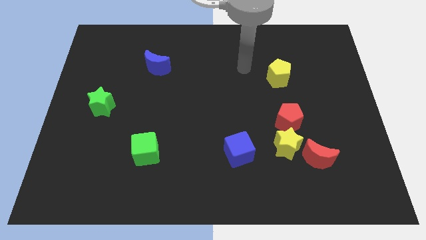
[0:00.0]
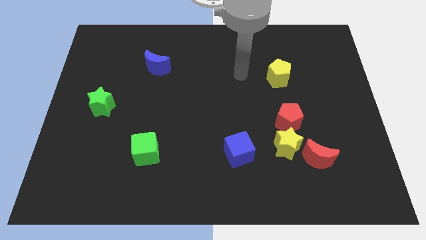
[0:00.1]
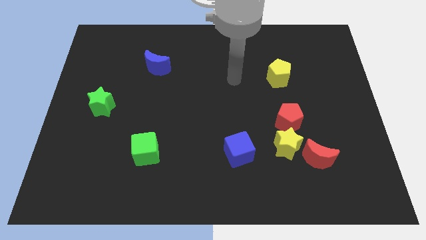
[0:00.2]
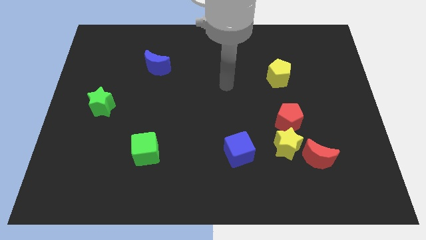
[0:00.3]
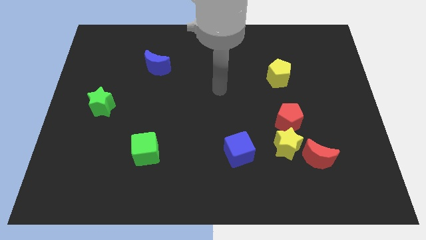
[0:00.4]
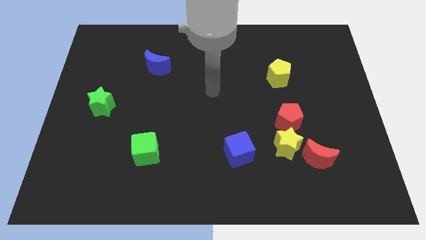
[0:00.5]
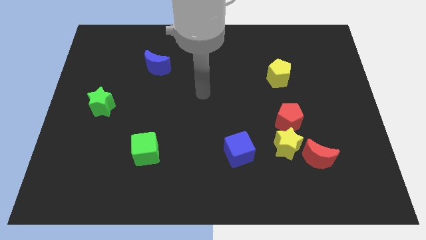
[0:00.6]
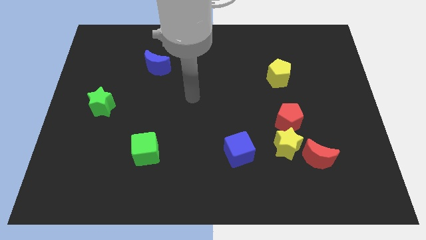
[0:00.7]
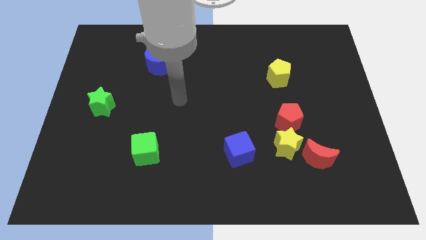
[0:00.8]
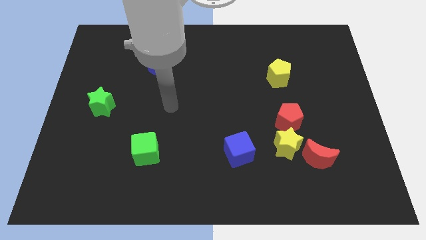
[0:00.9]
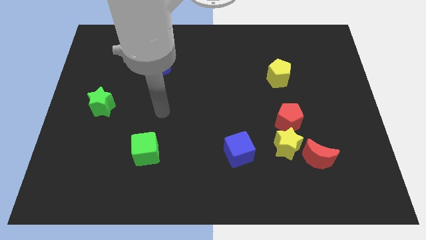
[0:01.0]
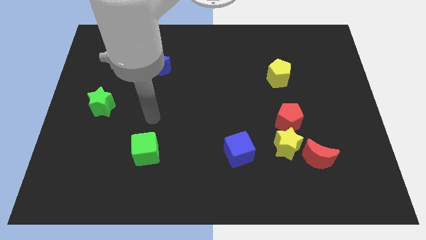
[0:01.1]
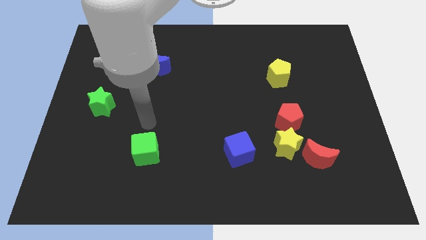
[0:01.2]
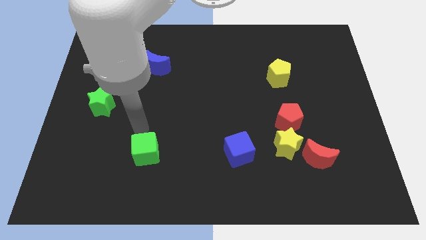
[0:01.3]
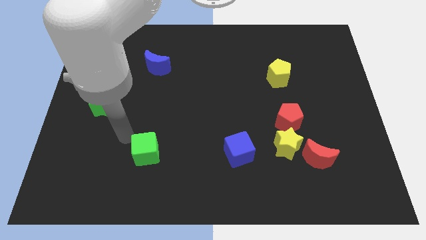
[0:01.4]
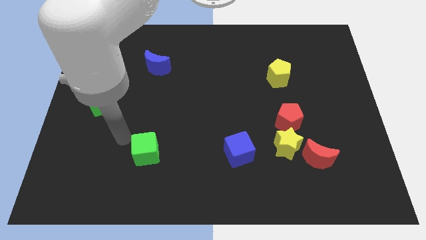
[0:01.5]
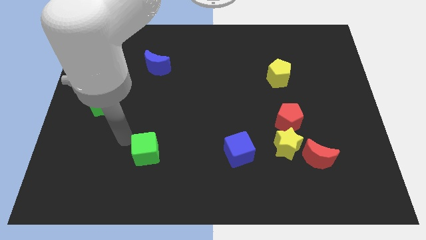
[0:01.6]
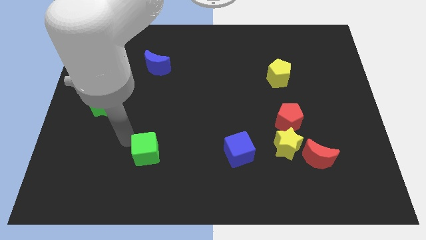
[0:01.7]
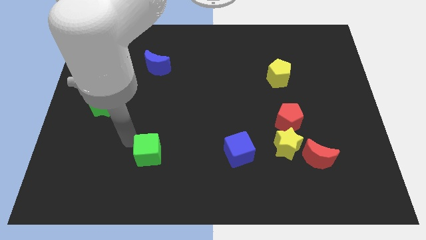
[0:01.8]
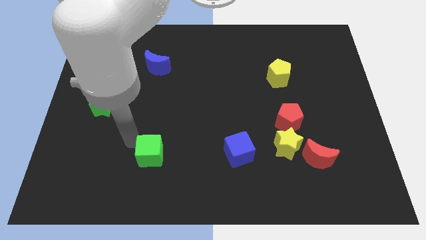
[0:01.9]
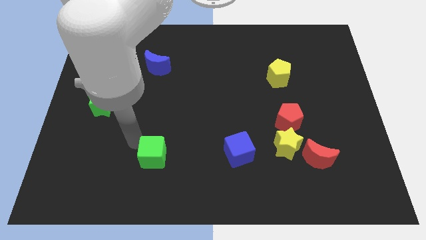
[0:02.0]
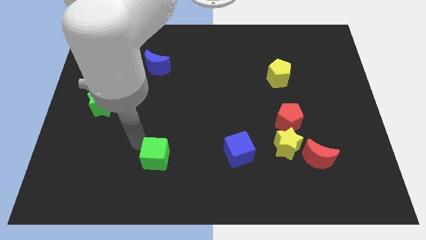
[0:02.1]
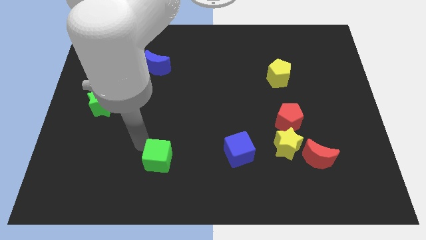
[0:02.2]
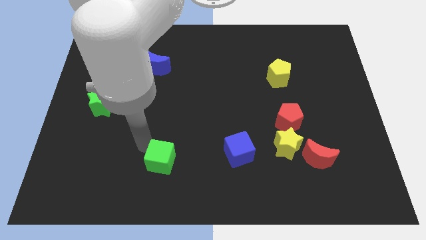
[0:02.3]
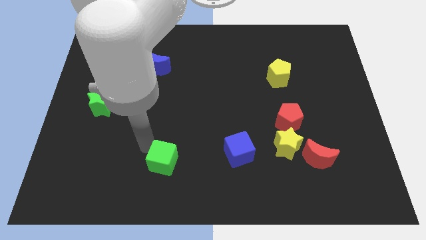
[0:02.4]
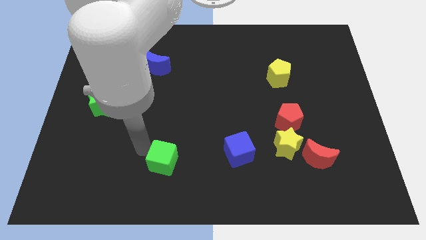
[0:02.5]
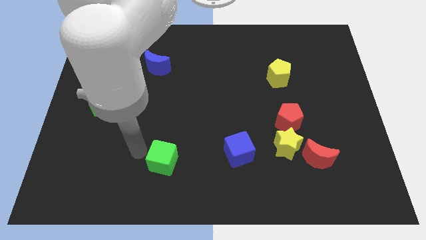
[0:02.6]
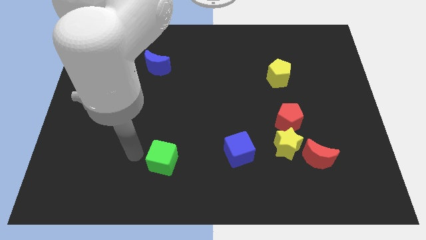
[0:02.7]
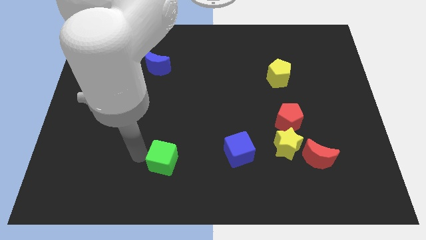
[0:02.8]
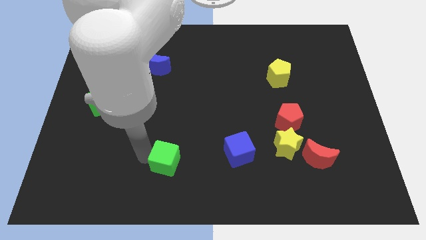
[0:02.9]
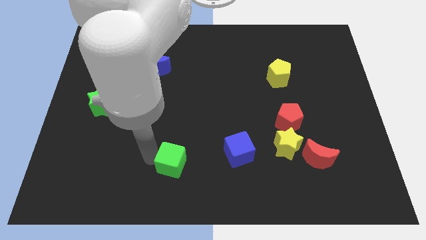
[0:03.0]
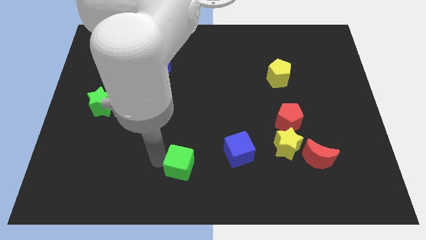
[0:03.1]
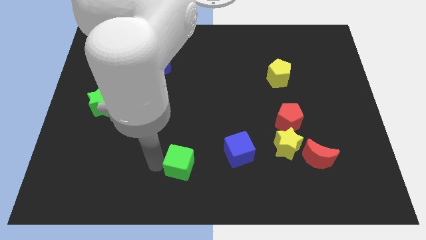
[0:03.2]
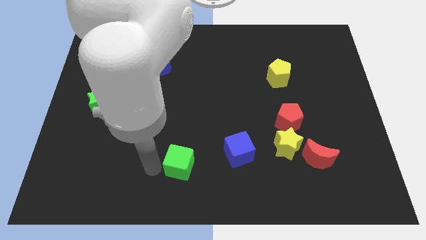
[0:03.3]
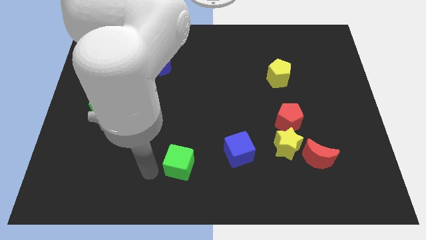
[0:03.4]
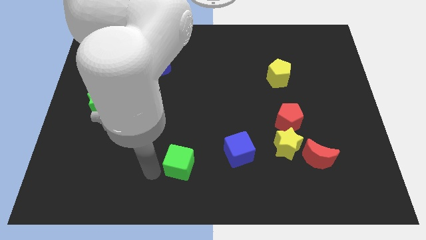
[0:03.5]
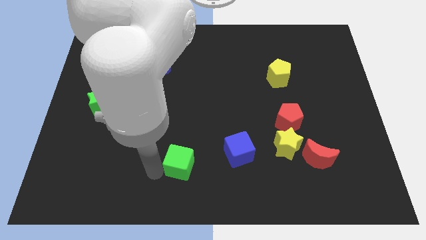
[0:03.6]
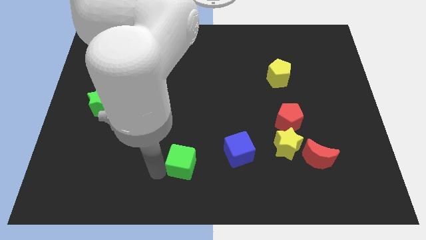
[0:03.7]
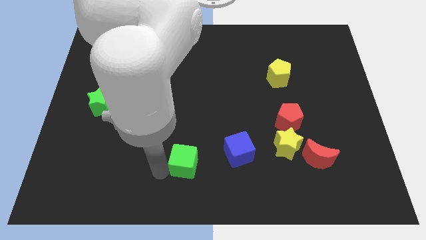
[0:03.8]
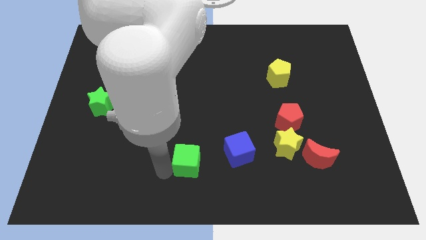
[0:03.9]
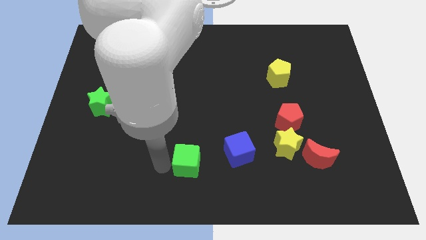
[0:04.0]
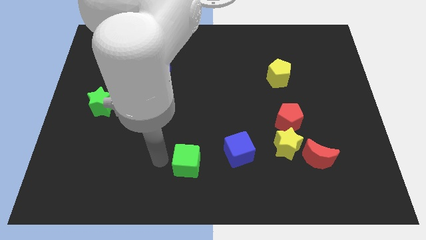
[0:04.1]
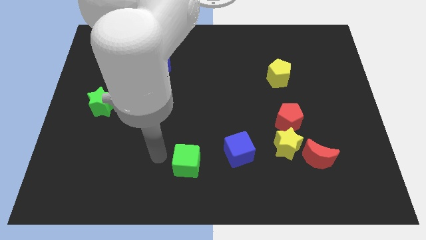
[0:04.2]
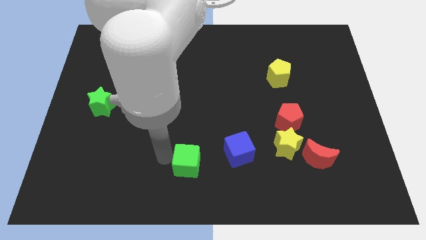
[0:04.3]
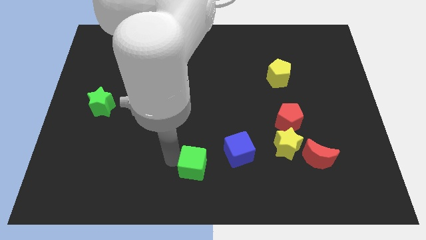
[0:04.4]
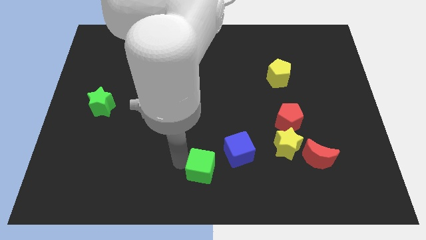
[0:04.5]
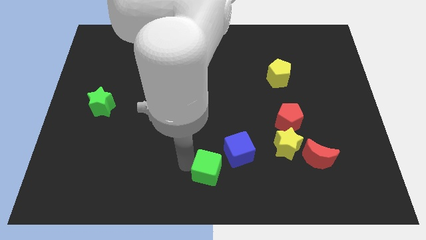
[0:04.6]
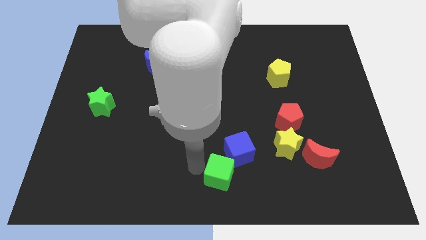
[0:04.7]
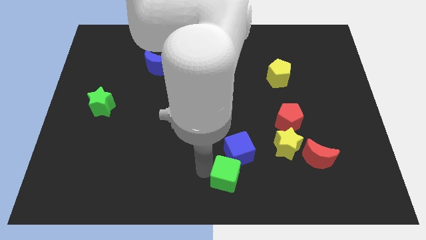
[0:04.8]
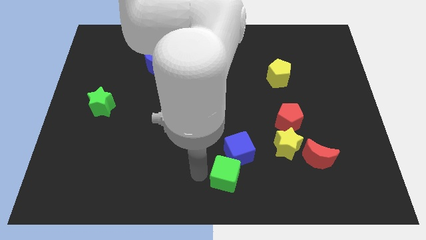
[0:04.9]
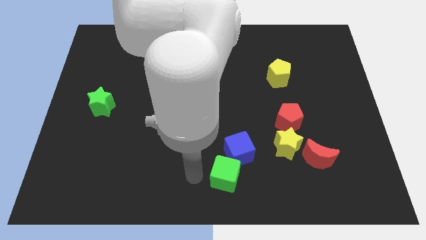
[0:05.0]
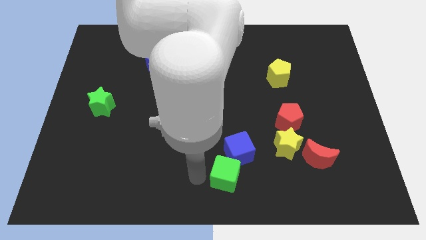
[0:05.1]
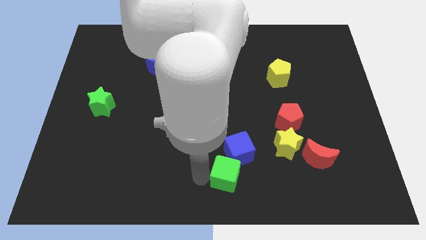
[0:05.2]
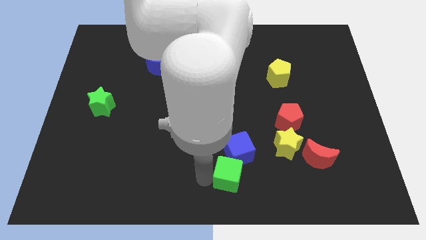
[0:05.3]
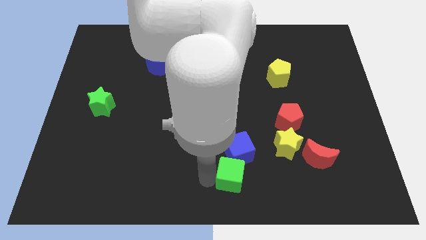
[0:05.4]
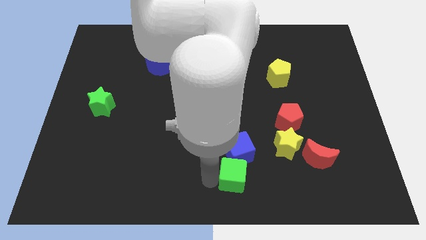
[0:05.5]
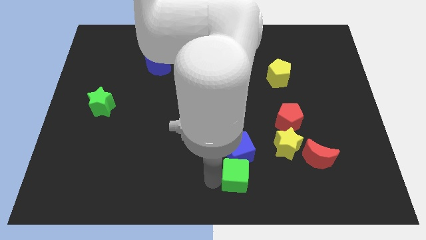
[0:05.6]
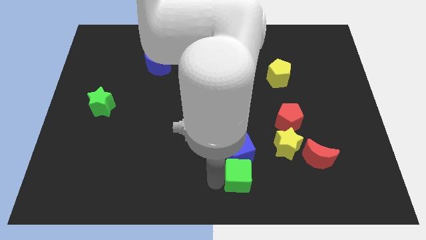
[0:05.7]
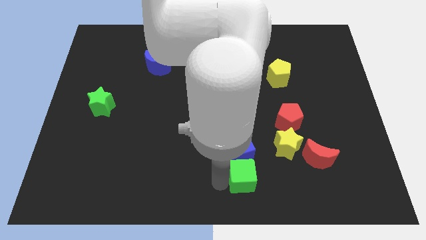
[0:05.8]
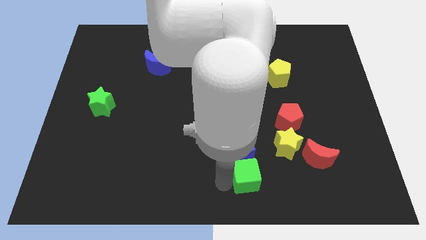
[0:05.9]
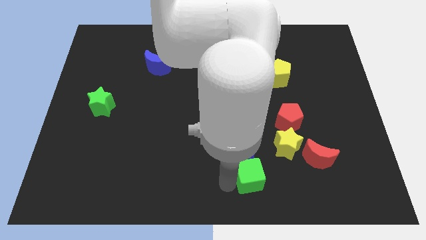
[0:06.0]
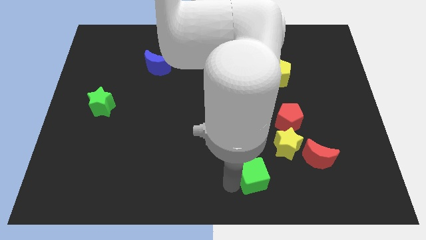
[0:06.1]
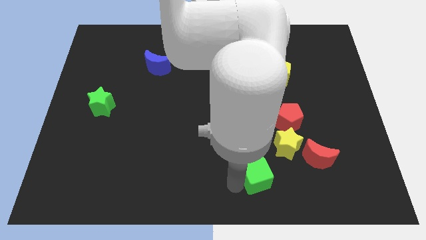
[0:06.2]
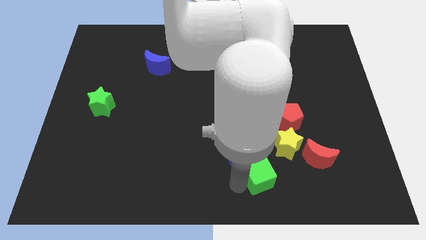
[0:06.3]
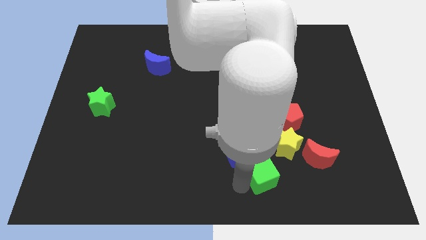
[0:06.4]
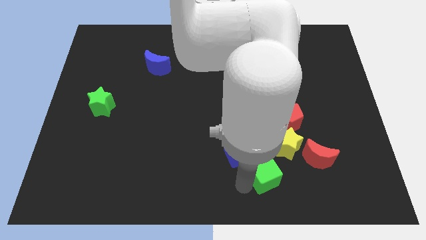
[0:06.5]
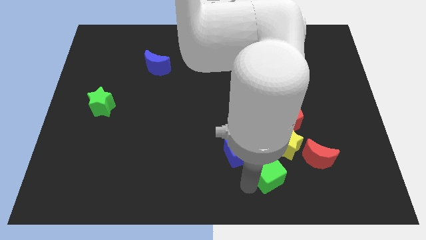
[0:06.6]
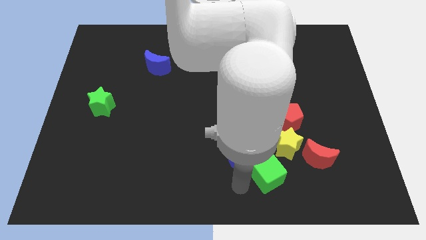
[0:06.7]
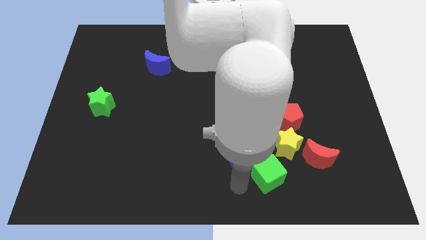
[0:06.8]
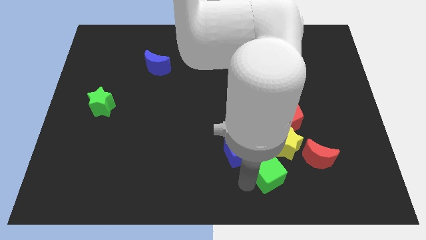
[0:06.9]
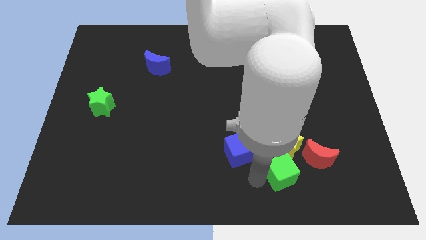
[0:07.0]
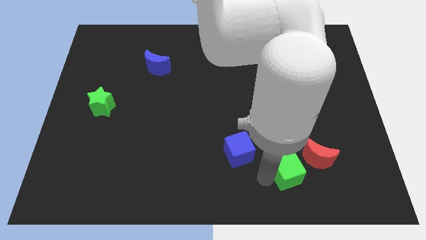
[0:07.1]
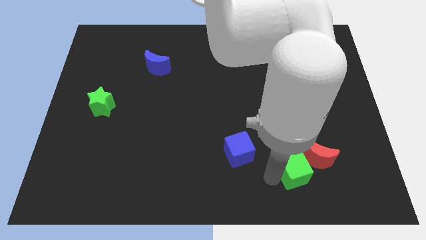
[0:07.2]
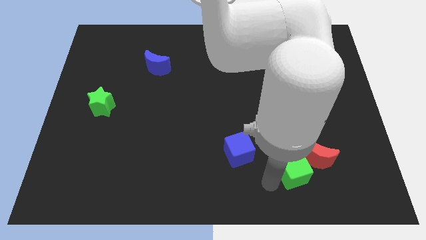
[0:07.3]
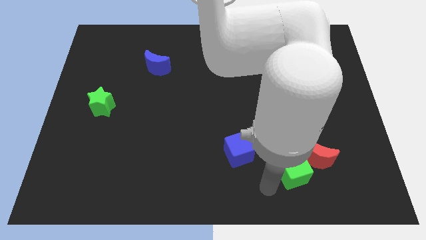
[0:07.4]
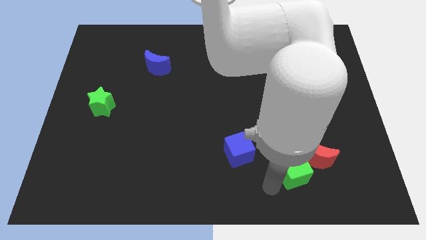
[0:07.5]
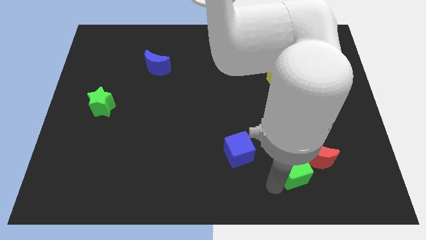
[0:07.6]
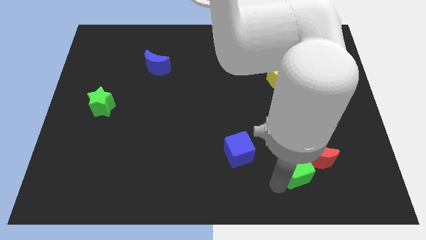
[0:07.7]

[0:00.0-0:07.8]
move the green cube close to the red moon
